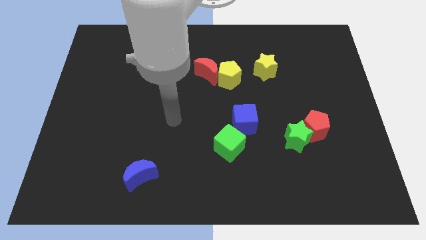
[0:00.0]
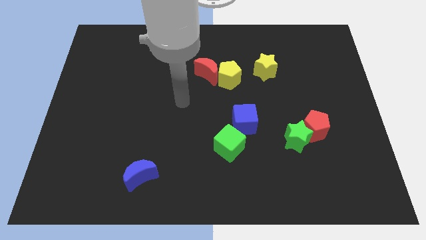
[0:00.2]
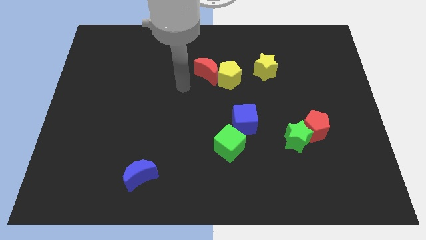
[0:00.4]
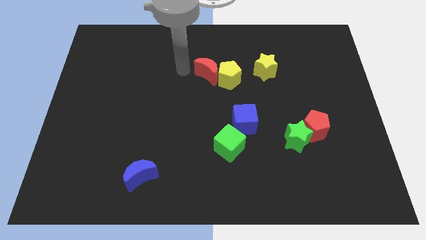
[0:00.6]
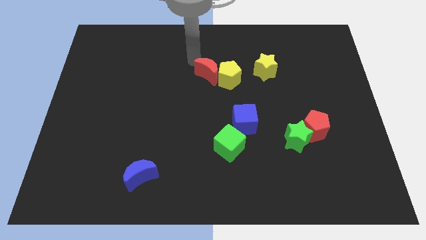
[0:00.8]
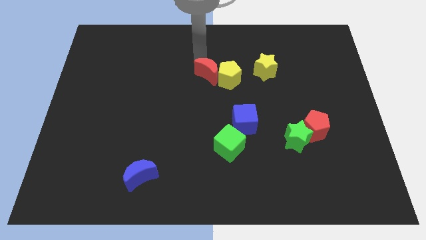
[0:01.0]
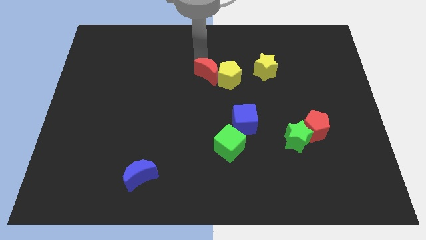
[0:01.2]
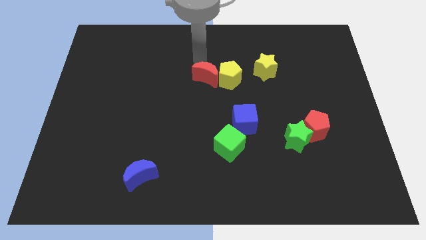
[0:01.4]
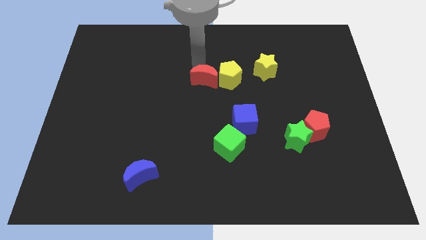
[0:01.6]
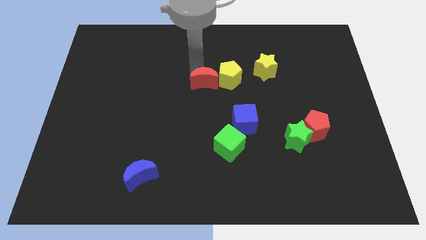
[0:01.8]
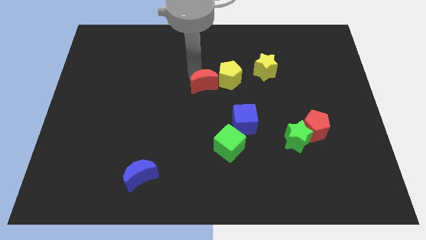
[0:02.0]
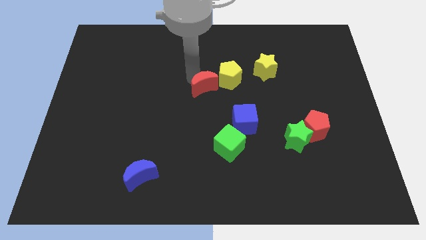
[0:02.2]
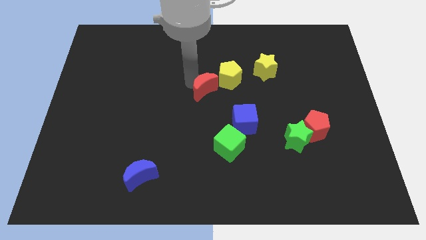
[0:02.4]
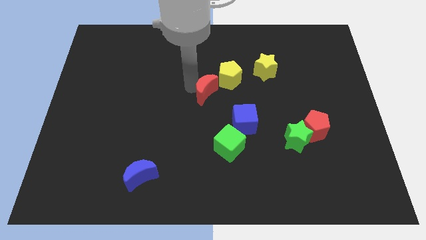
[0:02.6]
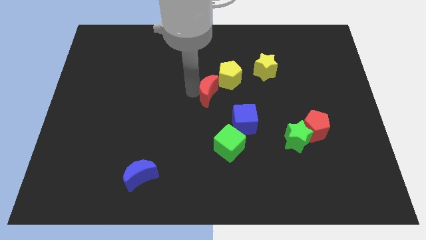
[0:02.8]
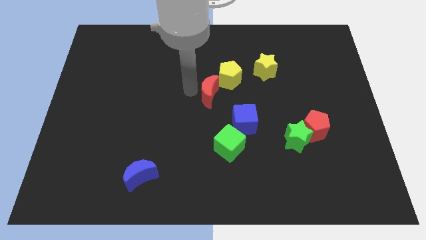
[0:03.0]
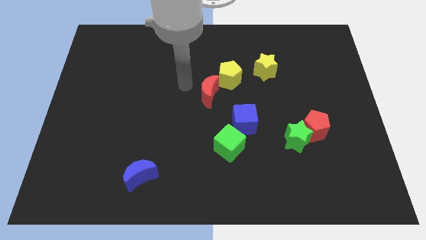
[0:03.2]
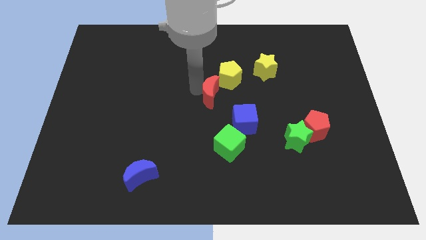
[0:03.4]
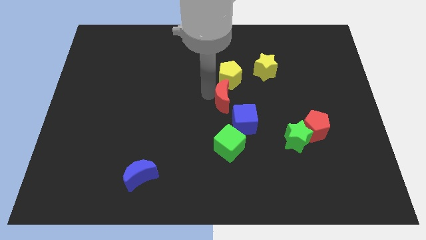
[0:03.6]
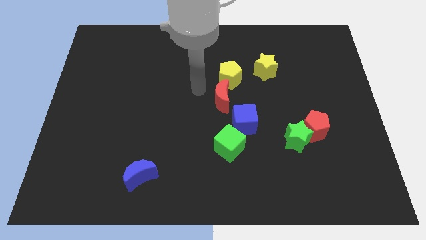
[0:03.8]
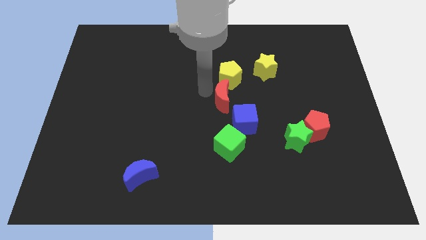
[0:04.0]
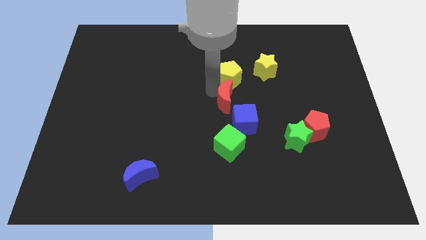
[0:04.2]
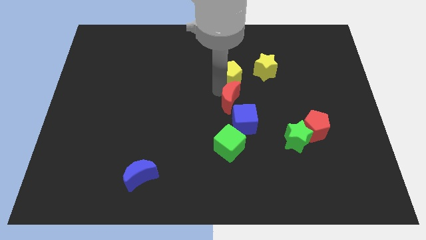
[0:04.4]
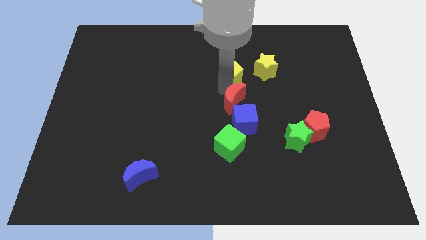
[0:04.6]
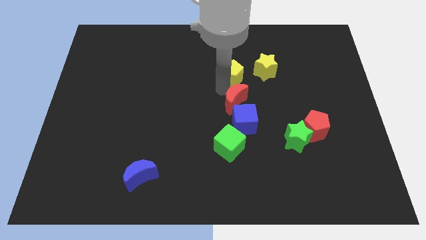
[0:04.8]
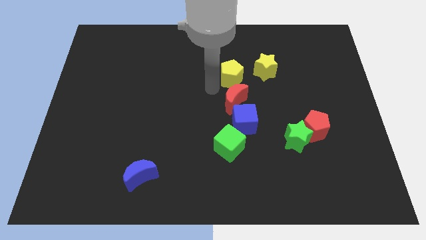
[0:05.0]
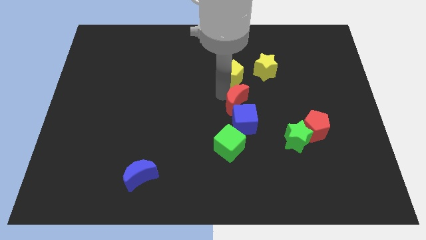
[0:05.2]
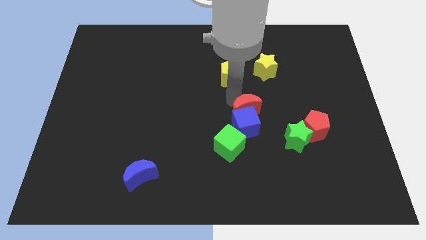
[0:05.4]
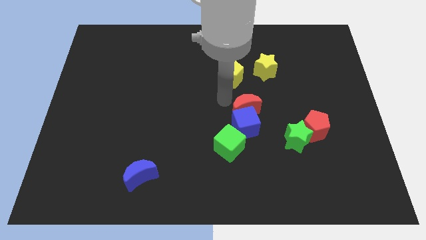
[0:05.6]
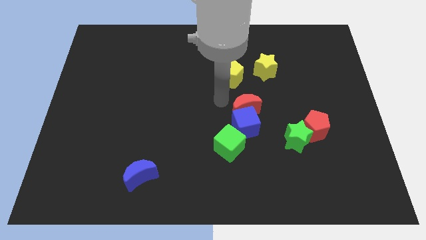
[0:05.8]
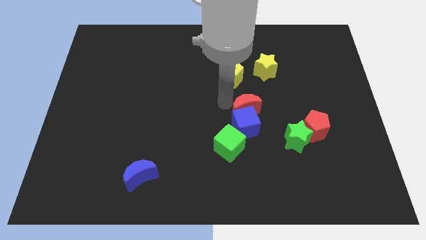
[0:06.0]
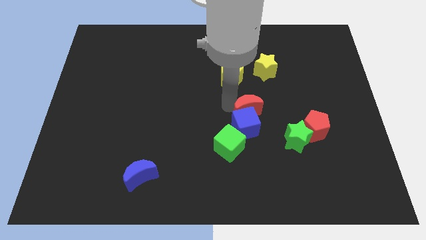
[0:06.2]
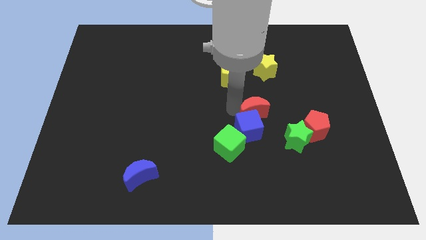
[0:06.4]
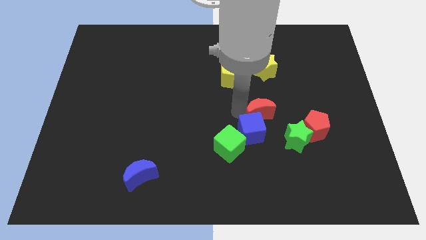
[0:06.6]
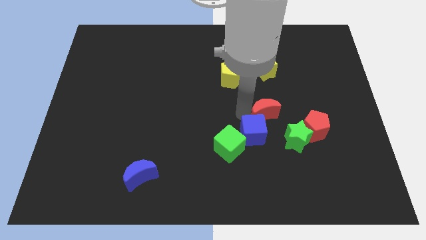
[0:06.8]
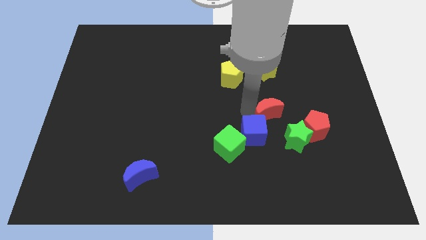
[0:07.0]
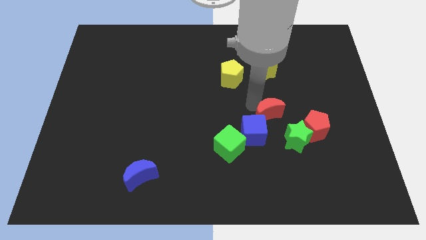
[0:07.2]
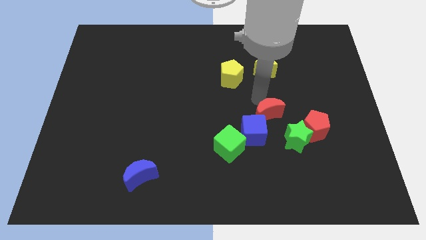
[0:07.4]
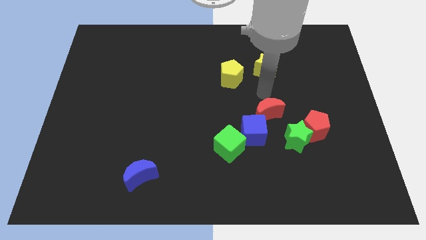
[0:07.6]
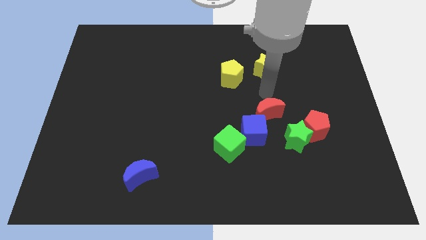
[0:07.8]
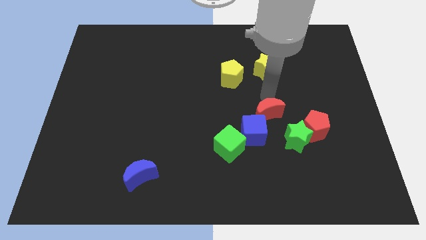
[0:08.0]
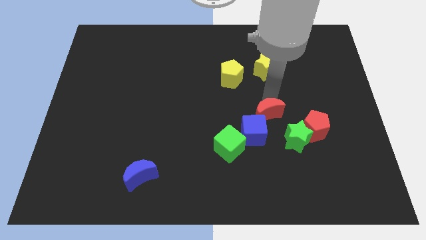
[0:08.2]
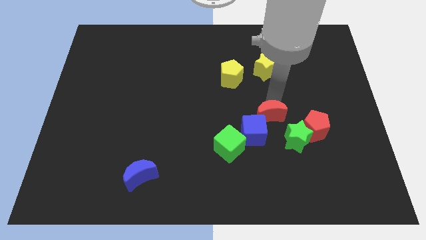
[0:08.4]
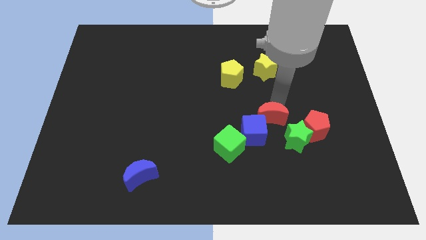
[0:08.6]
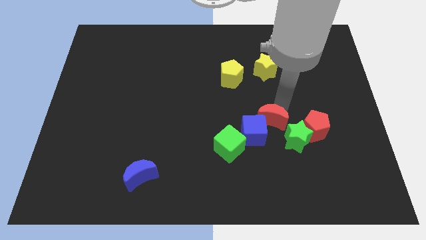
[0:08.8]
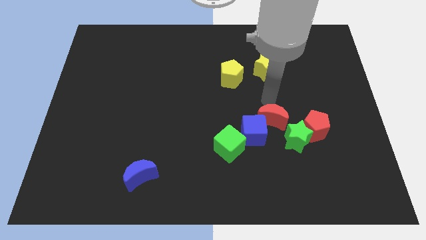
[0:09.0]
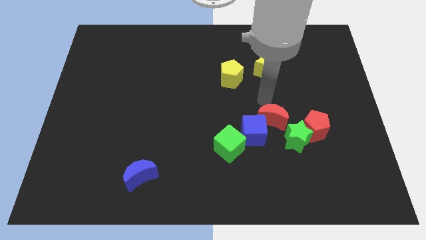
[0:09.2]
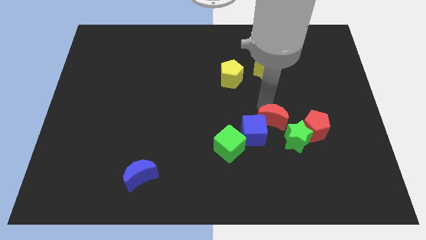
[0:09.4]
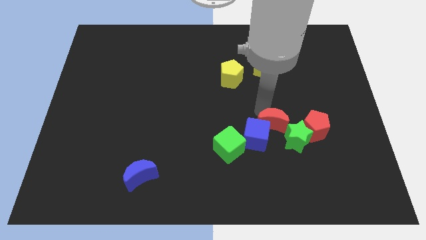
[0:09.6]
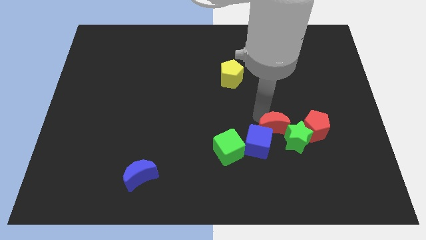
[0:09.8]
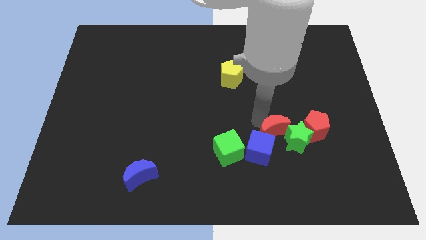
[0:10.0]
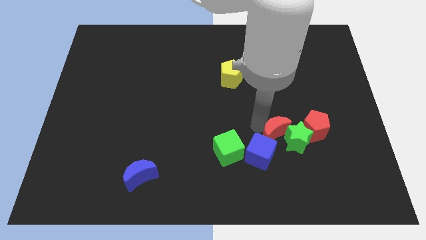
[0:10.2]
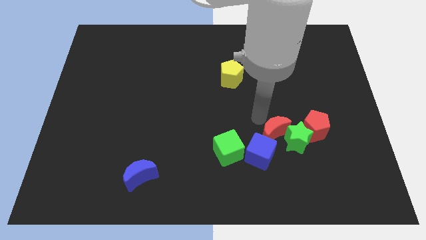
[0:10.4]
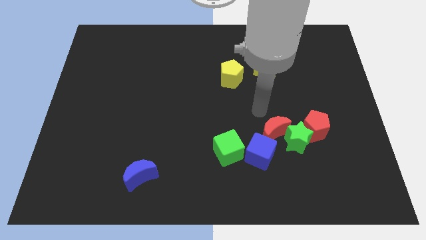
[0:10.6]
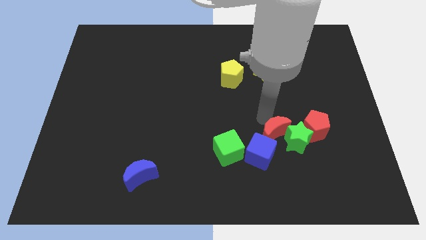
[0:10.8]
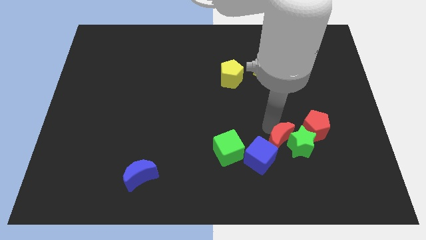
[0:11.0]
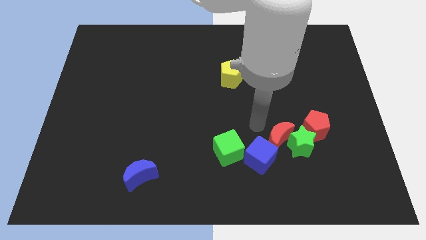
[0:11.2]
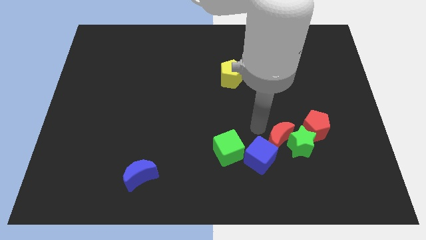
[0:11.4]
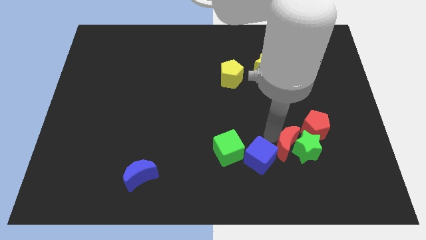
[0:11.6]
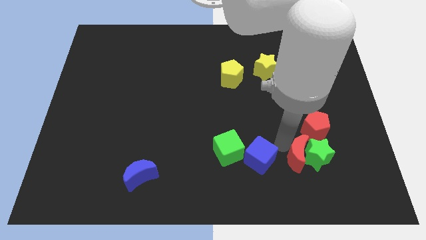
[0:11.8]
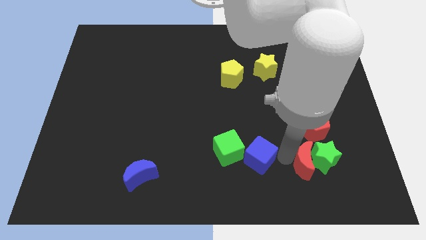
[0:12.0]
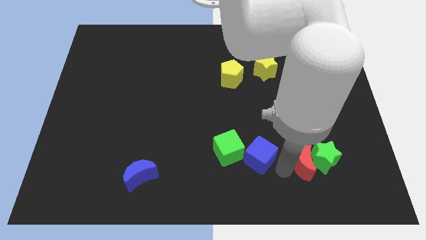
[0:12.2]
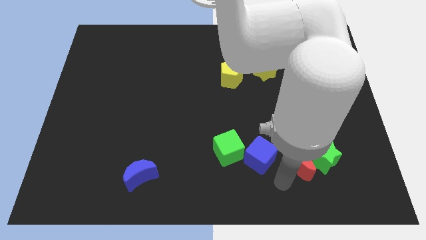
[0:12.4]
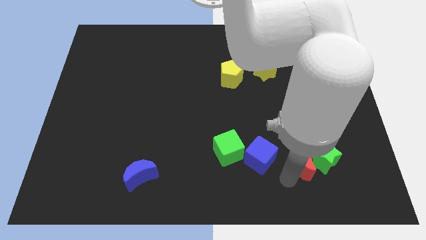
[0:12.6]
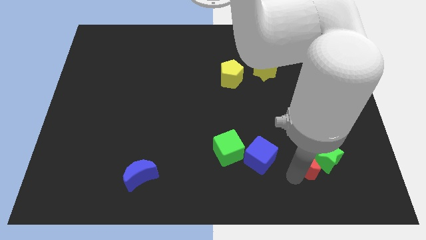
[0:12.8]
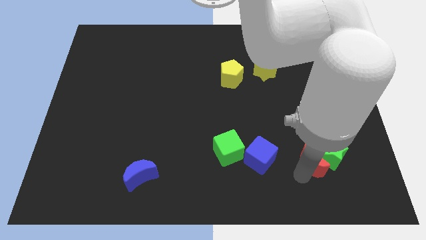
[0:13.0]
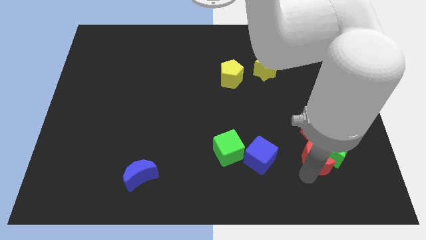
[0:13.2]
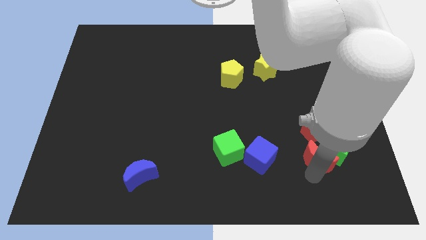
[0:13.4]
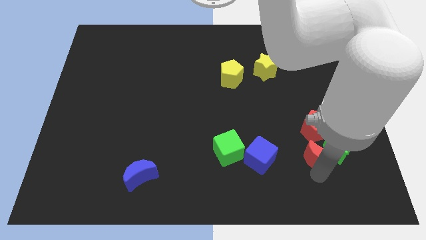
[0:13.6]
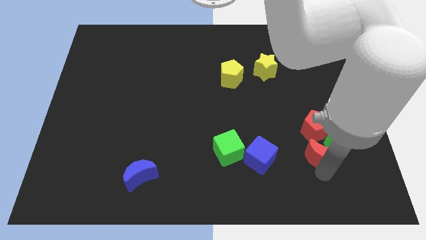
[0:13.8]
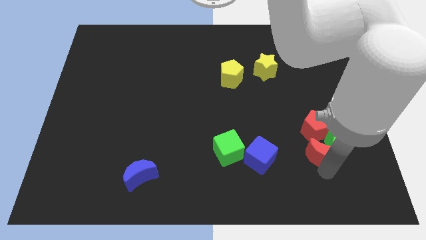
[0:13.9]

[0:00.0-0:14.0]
put the red moon to the bottom right side of the red pentagon
